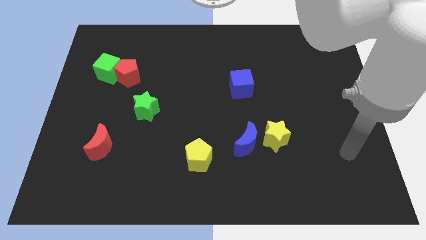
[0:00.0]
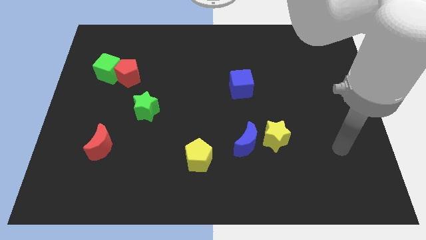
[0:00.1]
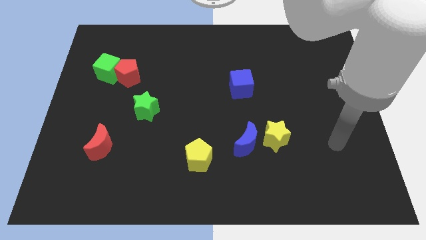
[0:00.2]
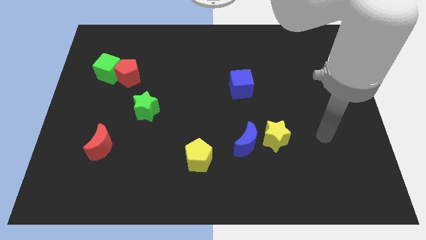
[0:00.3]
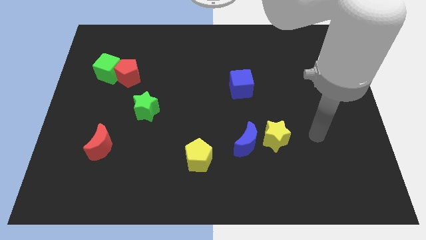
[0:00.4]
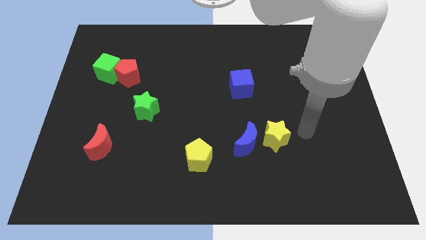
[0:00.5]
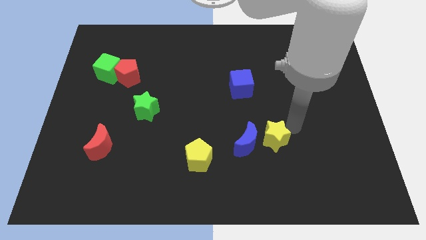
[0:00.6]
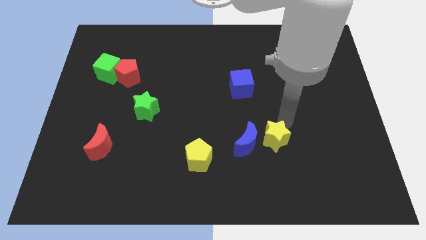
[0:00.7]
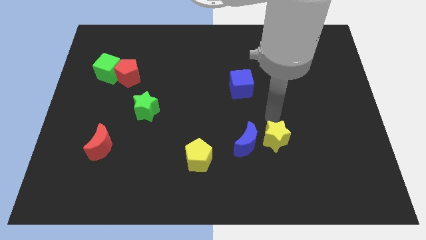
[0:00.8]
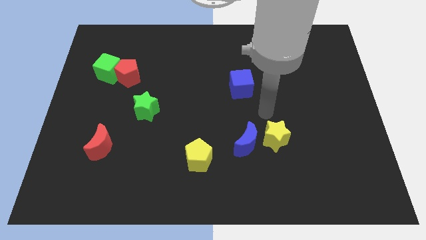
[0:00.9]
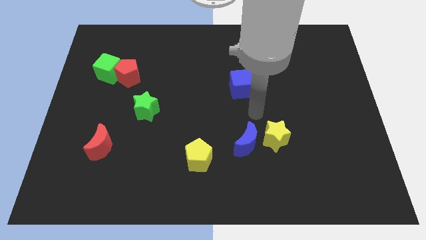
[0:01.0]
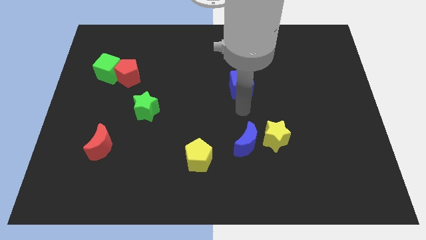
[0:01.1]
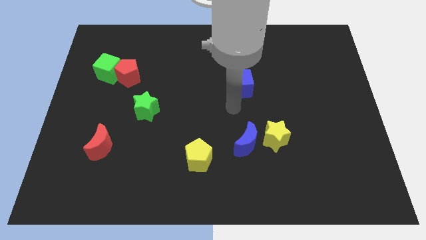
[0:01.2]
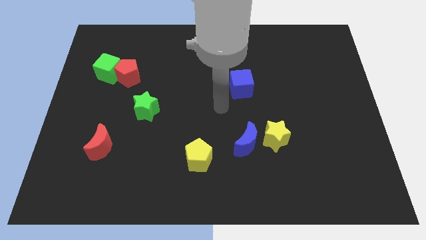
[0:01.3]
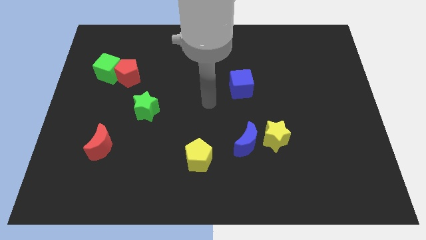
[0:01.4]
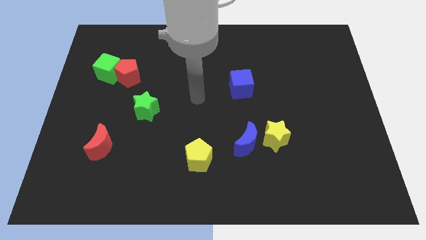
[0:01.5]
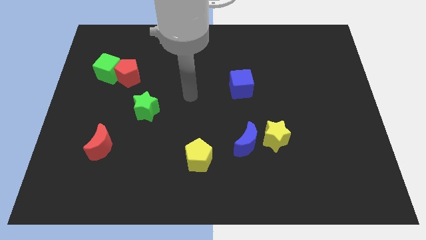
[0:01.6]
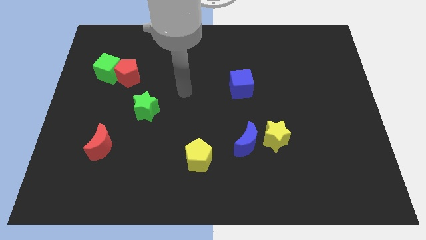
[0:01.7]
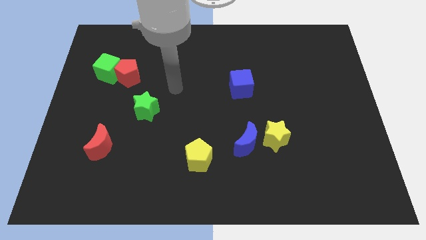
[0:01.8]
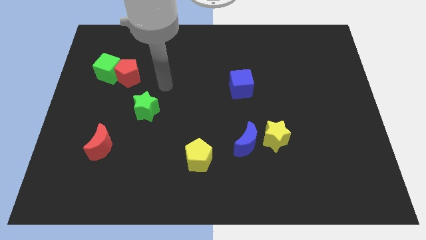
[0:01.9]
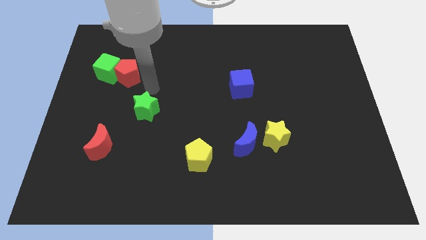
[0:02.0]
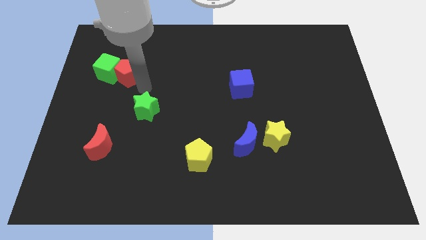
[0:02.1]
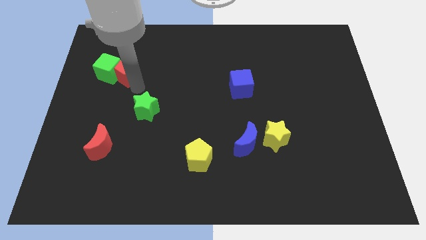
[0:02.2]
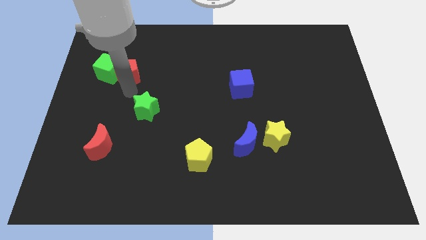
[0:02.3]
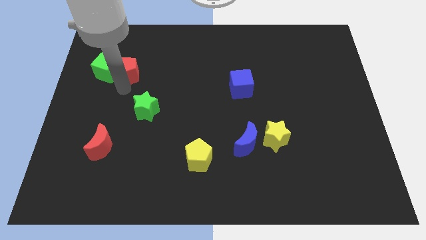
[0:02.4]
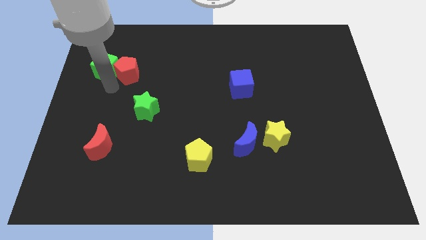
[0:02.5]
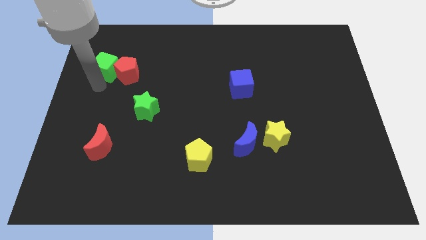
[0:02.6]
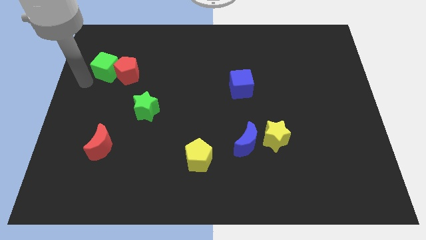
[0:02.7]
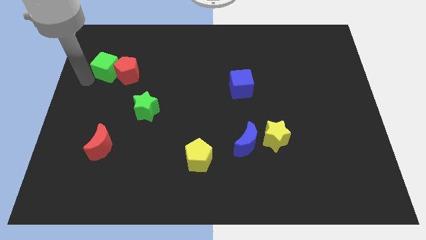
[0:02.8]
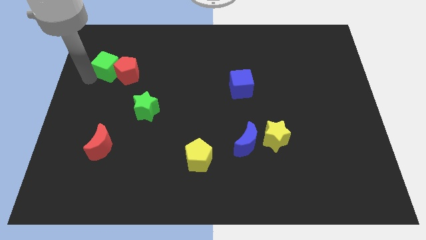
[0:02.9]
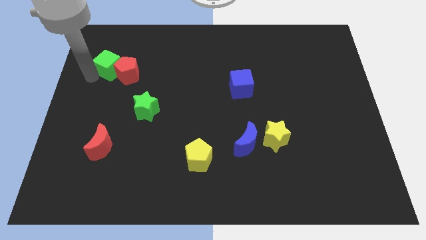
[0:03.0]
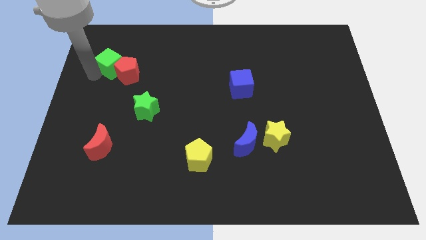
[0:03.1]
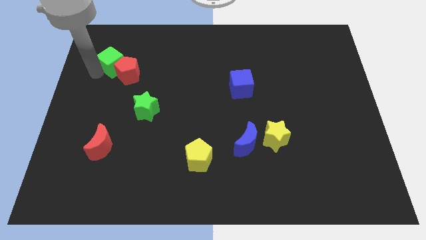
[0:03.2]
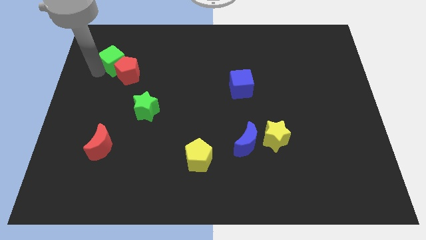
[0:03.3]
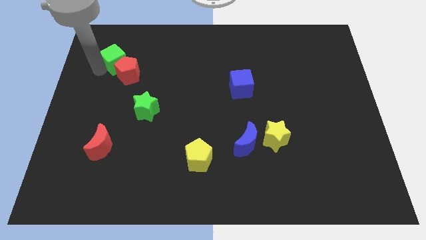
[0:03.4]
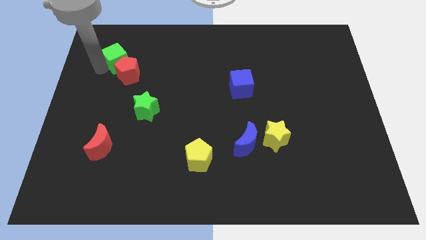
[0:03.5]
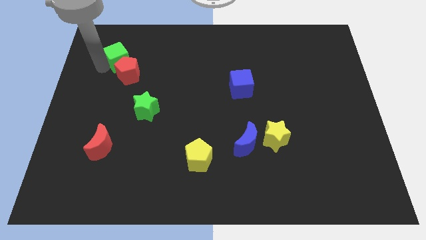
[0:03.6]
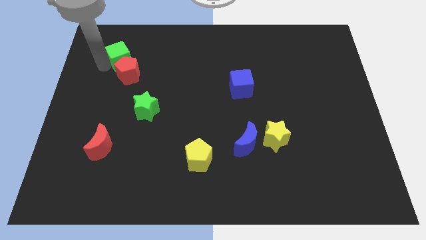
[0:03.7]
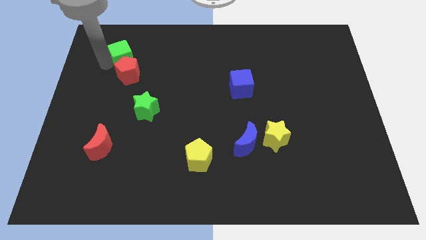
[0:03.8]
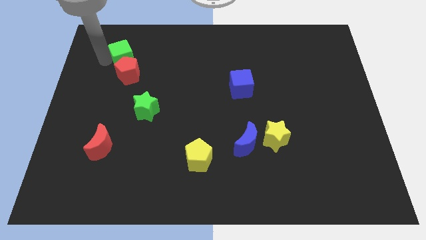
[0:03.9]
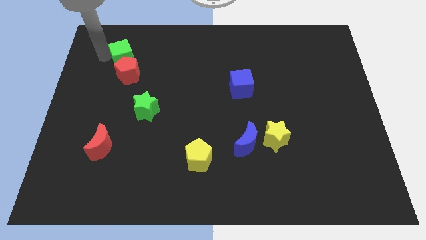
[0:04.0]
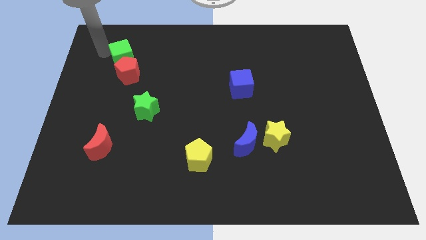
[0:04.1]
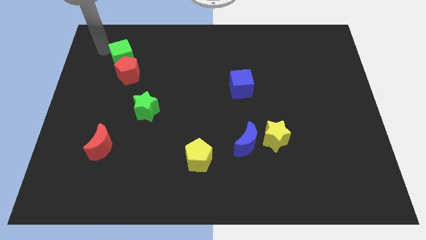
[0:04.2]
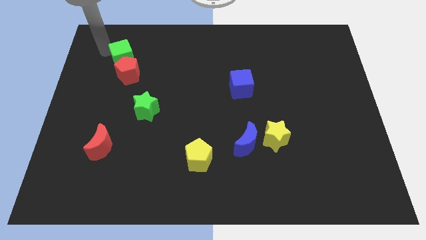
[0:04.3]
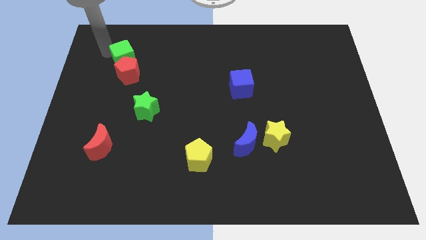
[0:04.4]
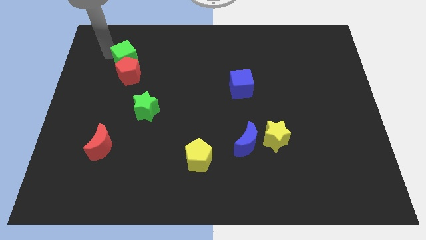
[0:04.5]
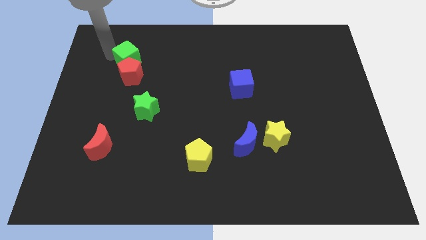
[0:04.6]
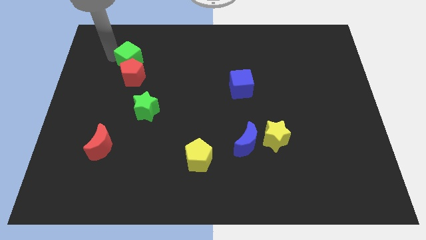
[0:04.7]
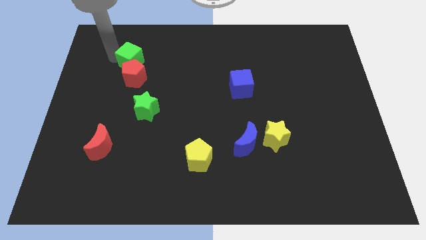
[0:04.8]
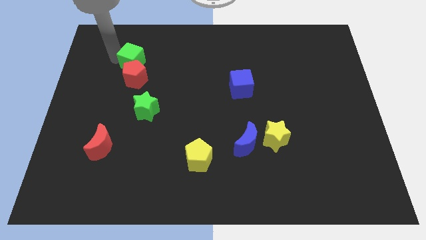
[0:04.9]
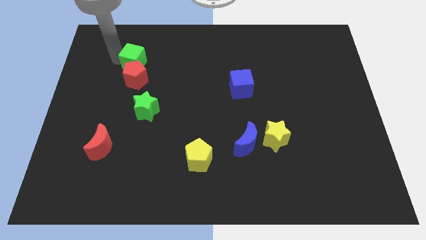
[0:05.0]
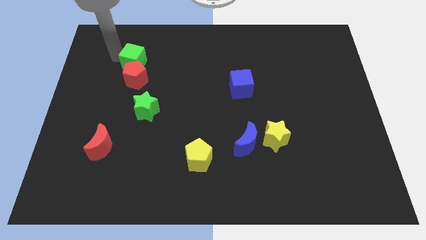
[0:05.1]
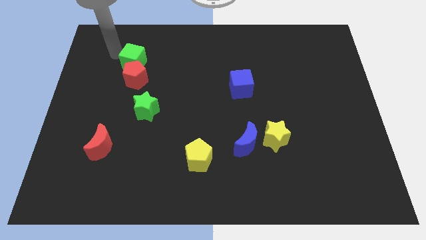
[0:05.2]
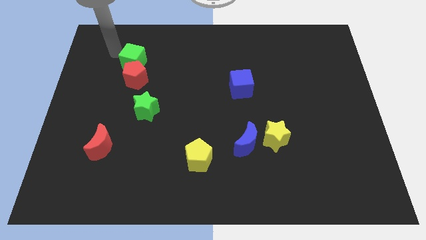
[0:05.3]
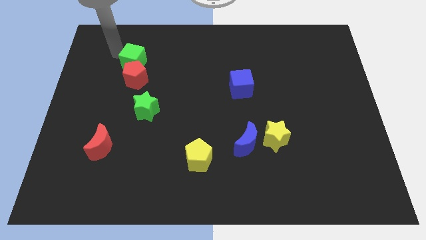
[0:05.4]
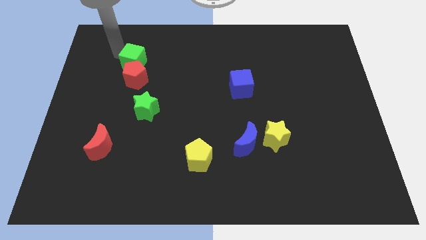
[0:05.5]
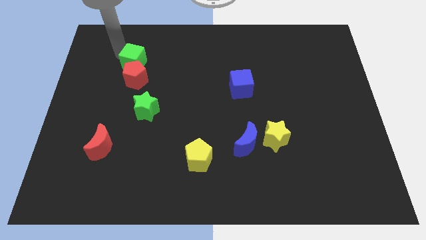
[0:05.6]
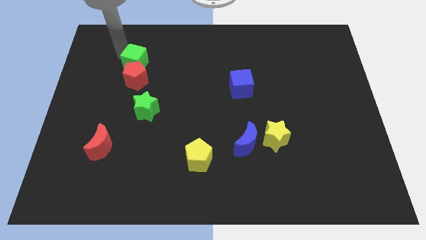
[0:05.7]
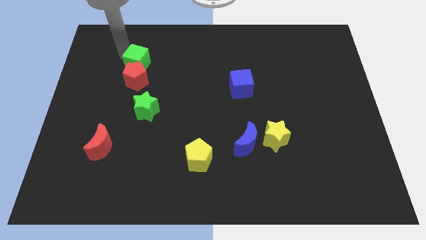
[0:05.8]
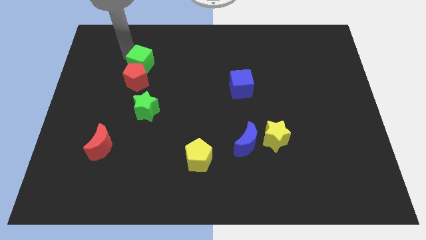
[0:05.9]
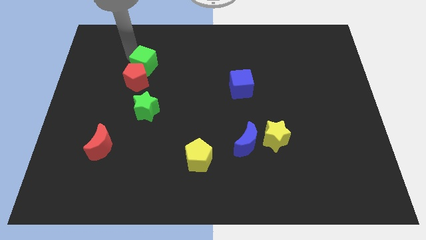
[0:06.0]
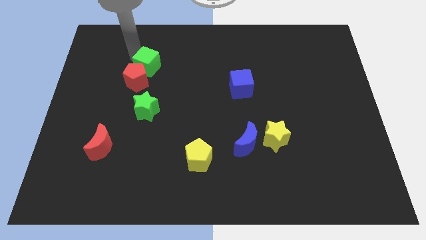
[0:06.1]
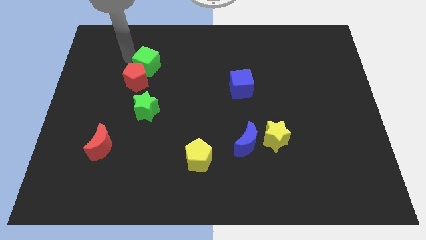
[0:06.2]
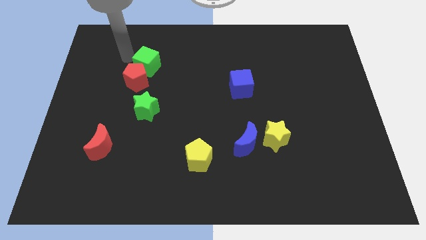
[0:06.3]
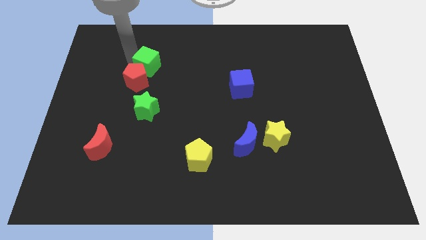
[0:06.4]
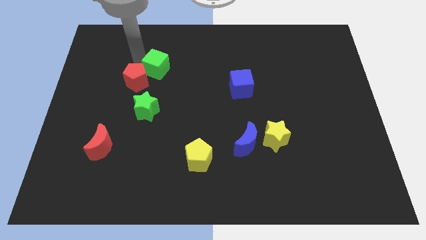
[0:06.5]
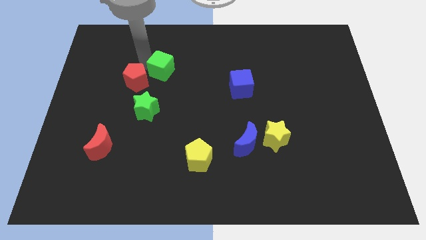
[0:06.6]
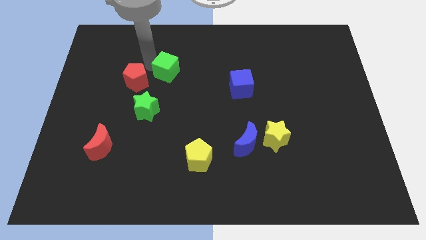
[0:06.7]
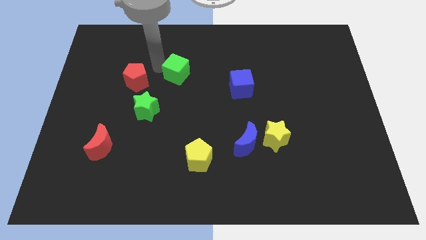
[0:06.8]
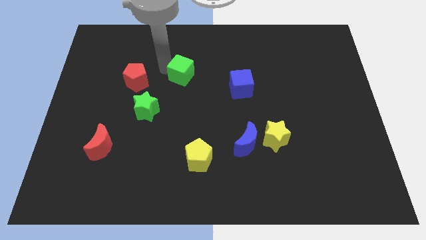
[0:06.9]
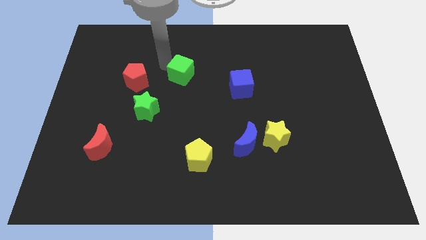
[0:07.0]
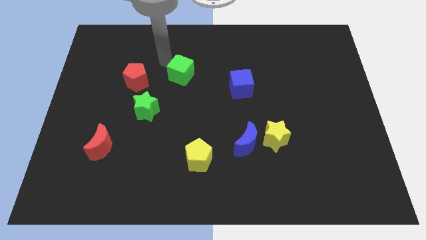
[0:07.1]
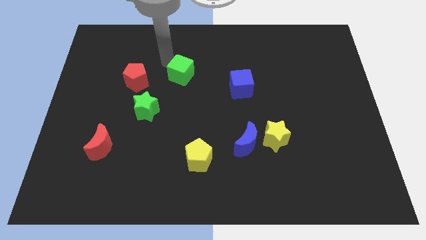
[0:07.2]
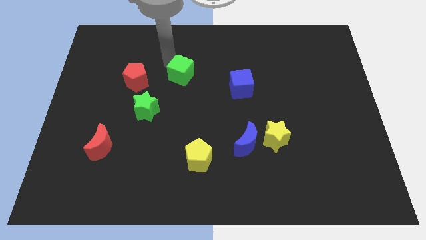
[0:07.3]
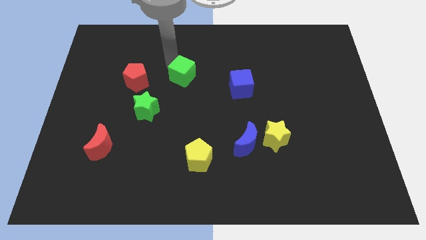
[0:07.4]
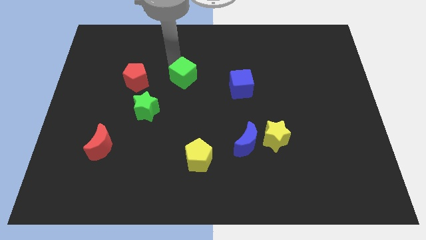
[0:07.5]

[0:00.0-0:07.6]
push the green cube just left of the blue cube
